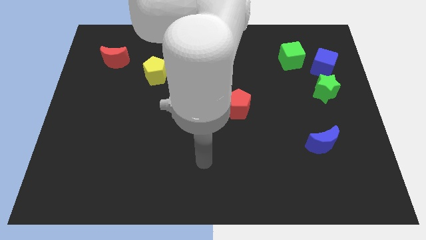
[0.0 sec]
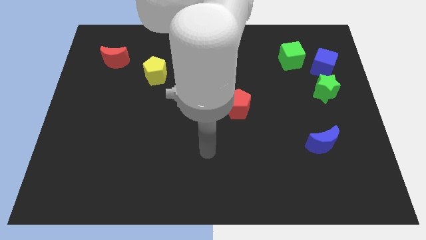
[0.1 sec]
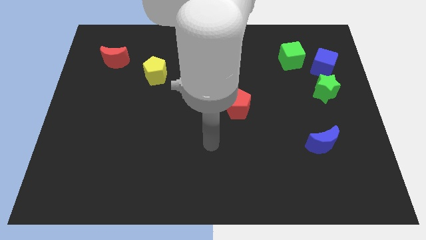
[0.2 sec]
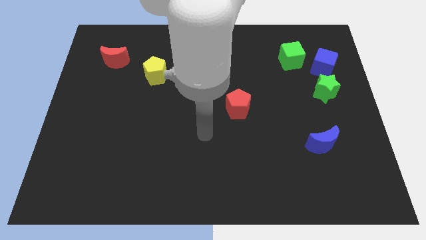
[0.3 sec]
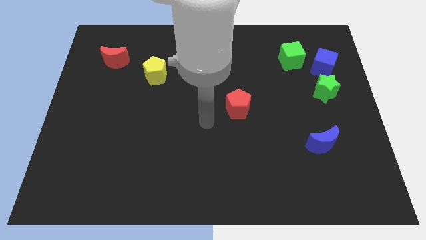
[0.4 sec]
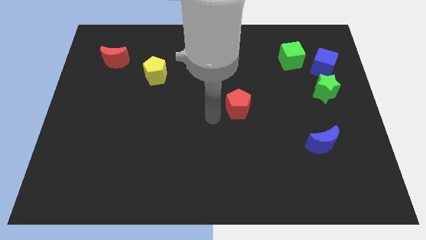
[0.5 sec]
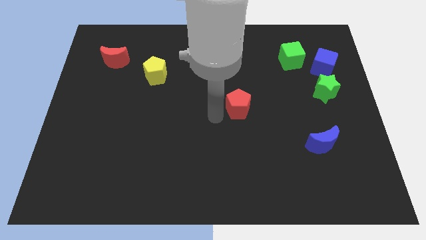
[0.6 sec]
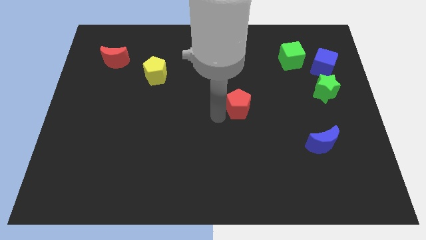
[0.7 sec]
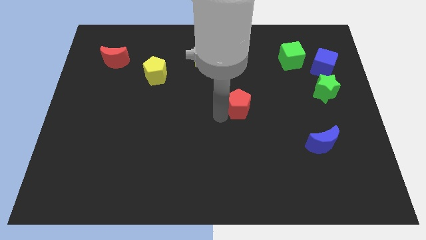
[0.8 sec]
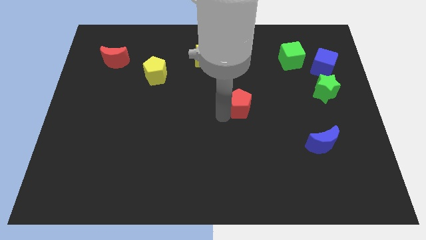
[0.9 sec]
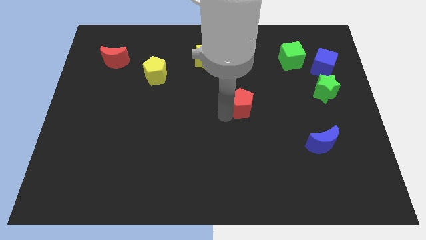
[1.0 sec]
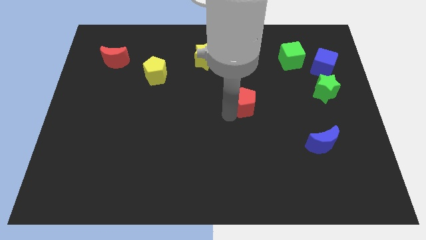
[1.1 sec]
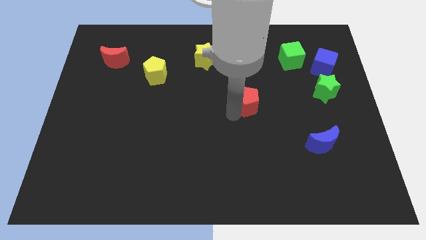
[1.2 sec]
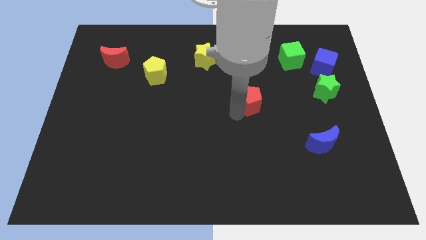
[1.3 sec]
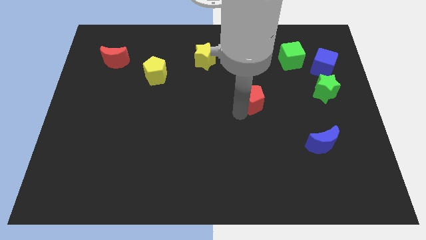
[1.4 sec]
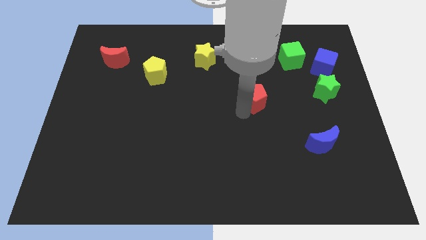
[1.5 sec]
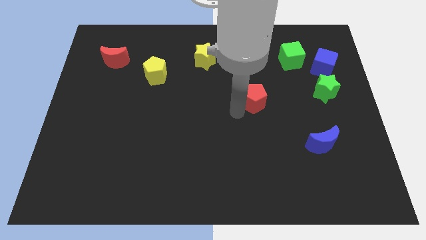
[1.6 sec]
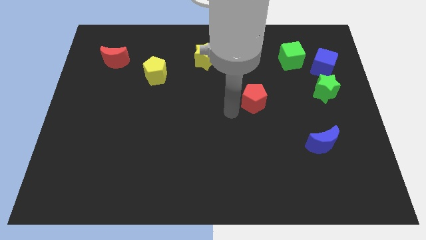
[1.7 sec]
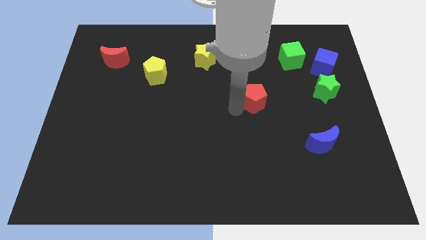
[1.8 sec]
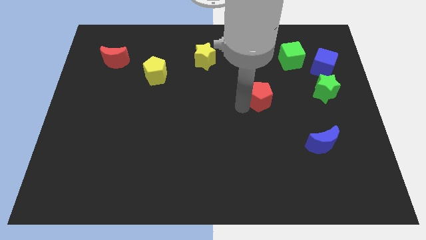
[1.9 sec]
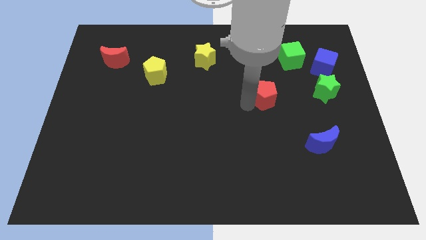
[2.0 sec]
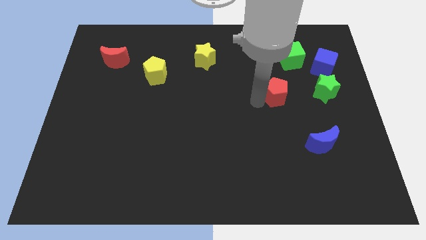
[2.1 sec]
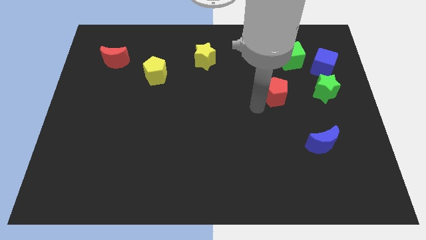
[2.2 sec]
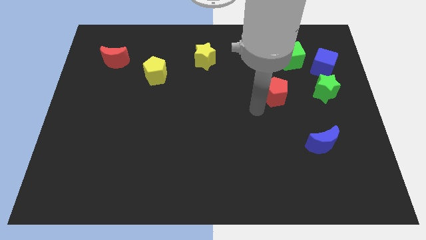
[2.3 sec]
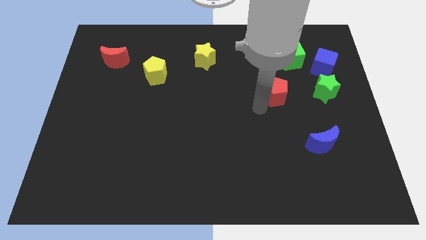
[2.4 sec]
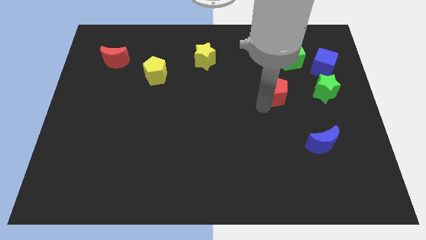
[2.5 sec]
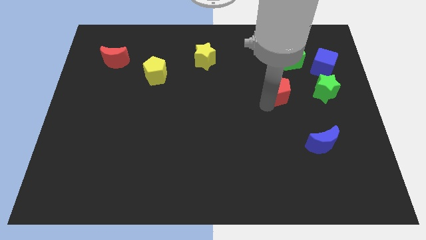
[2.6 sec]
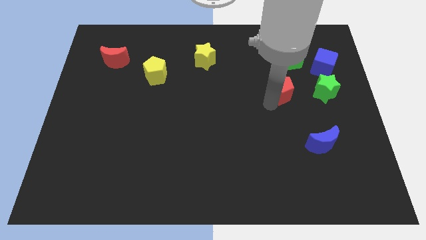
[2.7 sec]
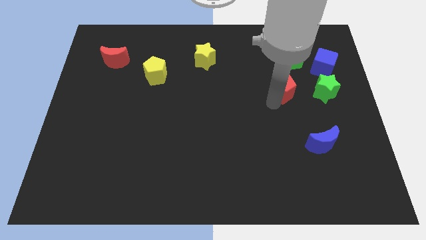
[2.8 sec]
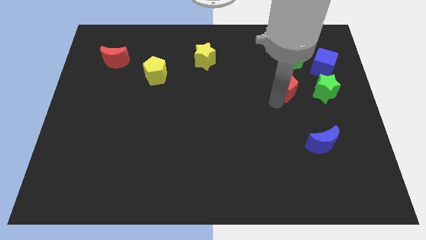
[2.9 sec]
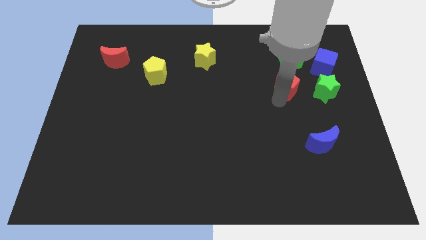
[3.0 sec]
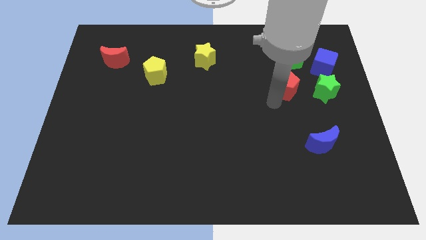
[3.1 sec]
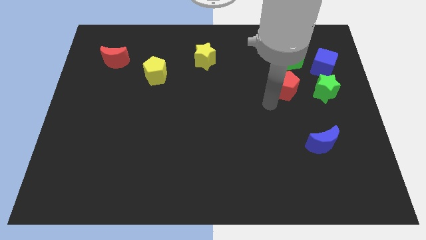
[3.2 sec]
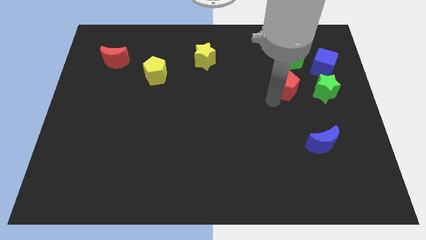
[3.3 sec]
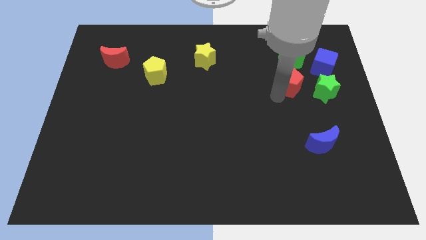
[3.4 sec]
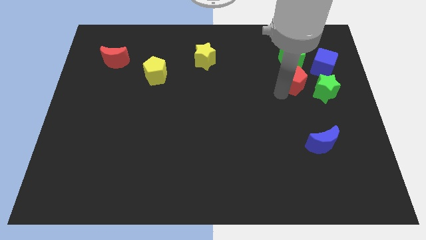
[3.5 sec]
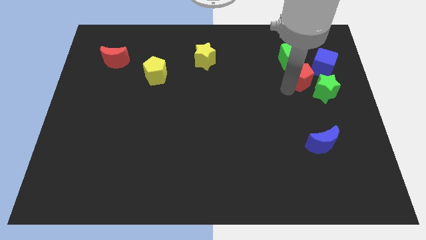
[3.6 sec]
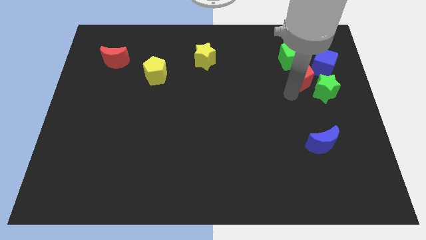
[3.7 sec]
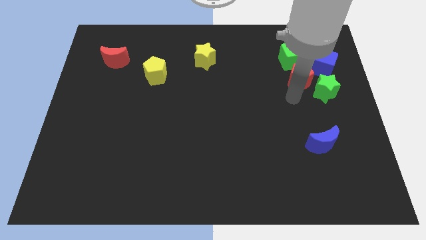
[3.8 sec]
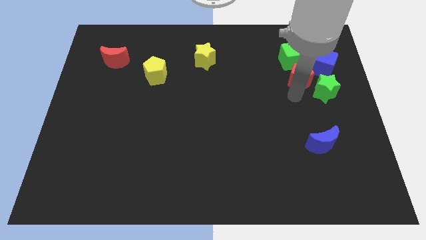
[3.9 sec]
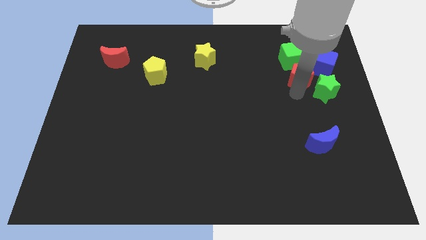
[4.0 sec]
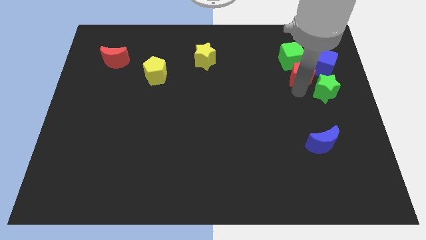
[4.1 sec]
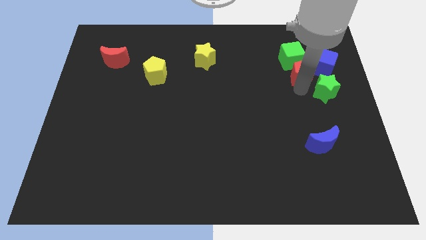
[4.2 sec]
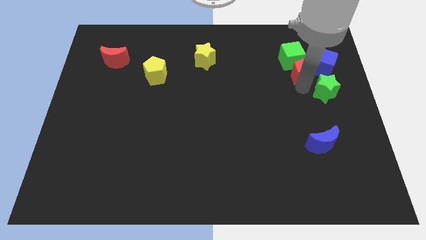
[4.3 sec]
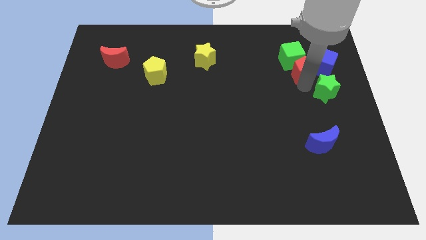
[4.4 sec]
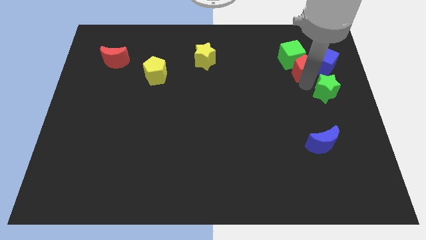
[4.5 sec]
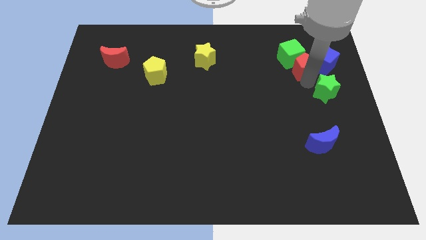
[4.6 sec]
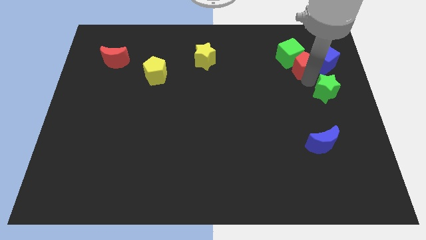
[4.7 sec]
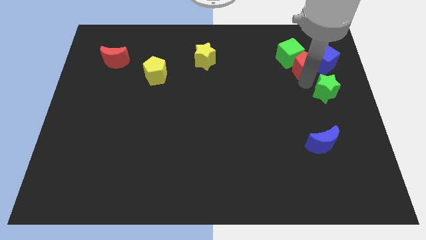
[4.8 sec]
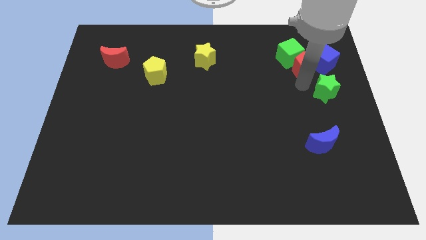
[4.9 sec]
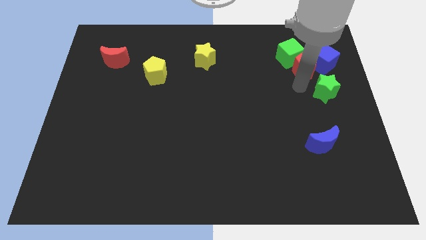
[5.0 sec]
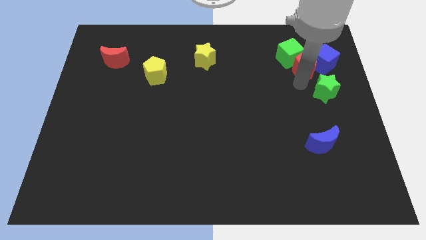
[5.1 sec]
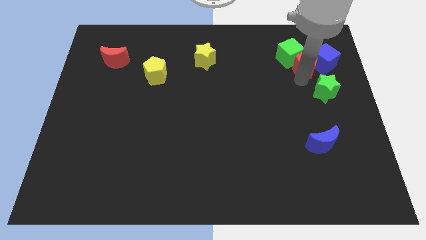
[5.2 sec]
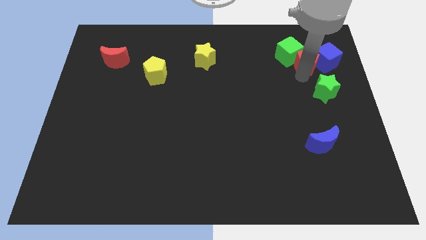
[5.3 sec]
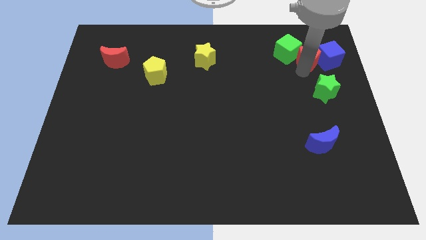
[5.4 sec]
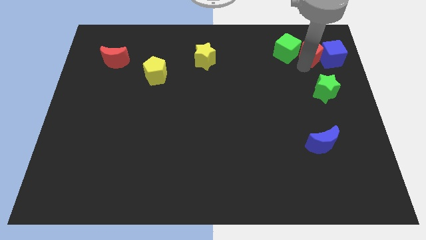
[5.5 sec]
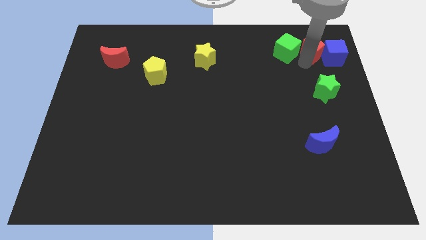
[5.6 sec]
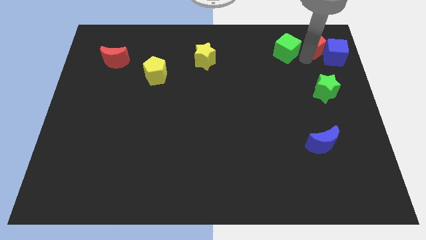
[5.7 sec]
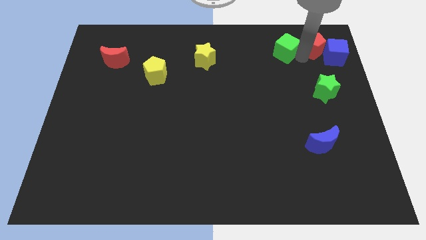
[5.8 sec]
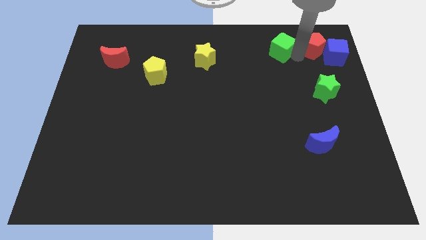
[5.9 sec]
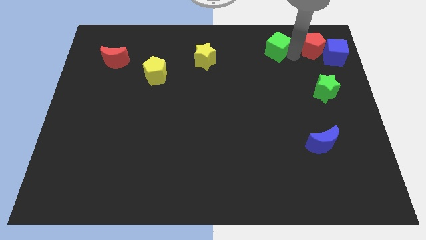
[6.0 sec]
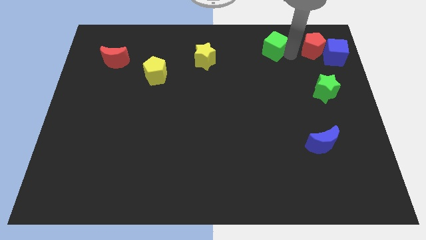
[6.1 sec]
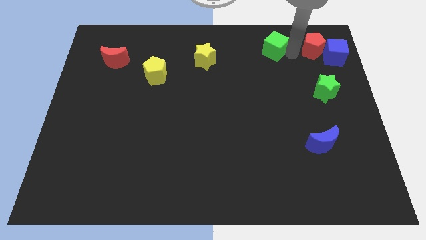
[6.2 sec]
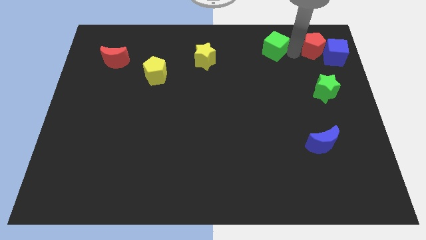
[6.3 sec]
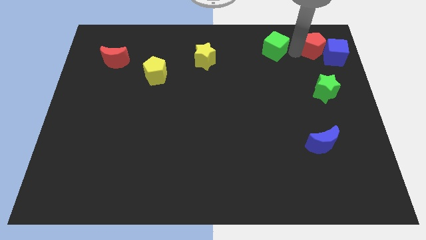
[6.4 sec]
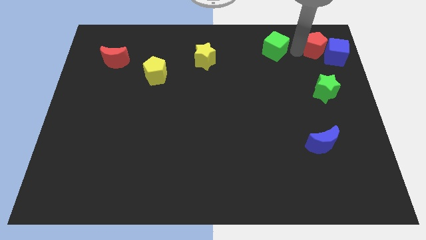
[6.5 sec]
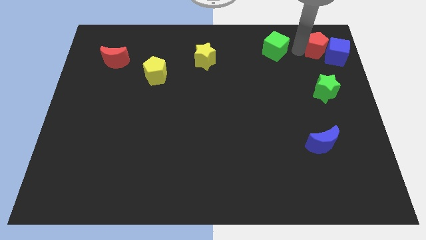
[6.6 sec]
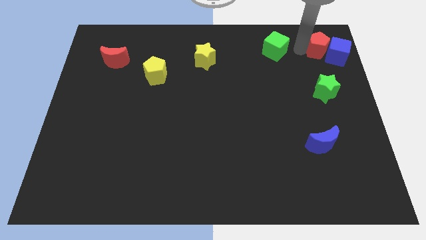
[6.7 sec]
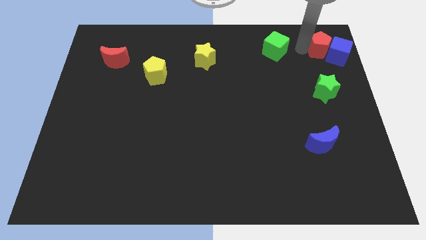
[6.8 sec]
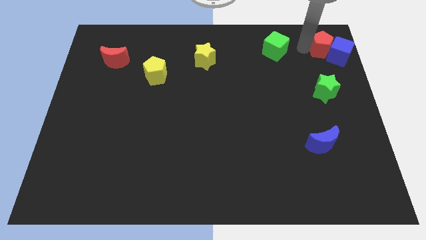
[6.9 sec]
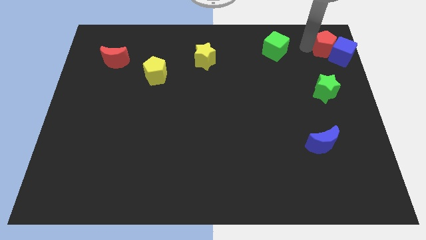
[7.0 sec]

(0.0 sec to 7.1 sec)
put the red pentagon to the upper right corner

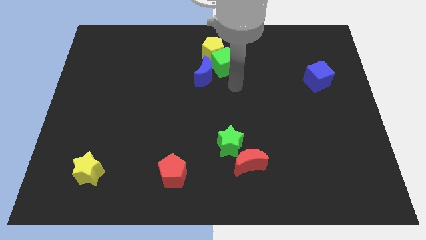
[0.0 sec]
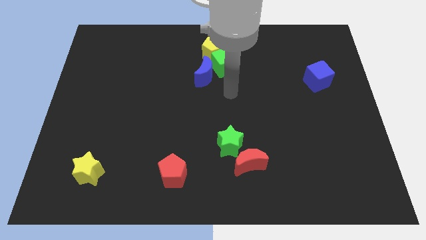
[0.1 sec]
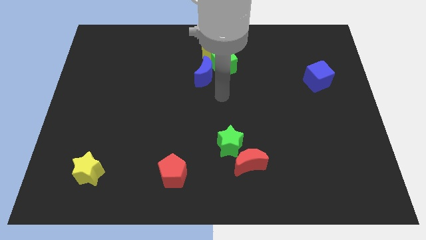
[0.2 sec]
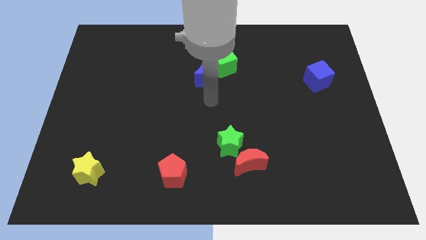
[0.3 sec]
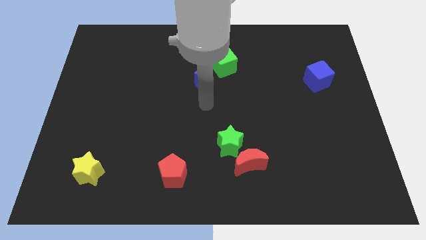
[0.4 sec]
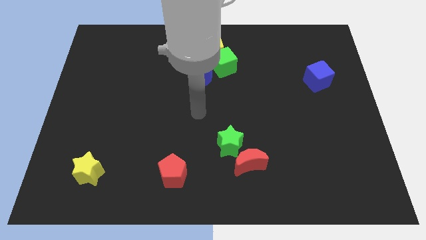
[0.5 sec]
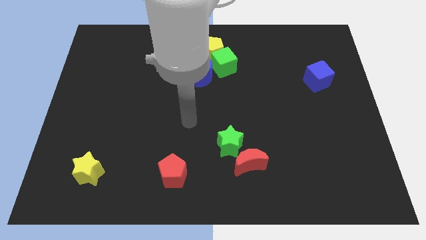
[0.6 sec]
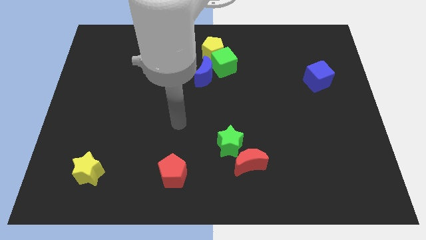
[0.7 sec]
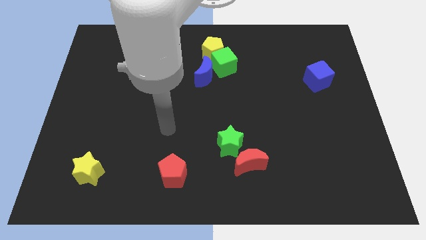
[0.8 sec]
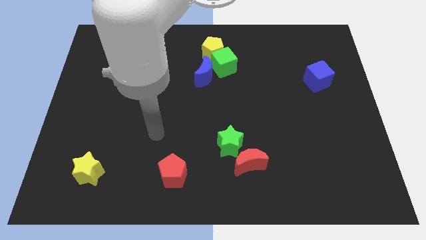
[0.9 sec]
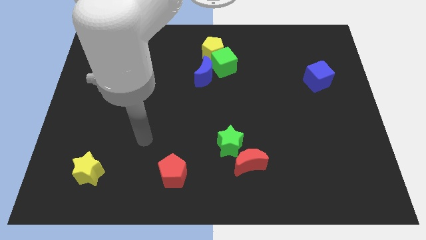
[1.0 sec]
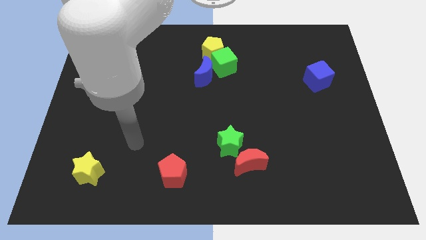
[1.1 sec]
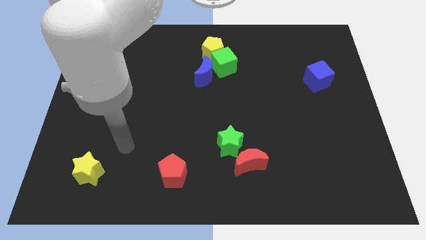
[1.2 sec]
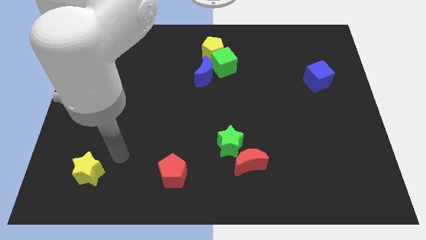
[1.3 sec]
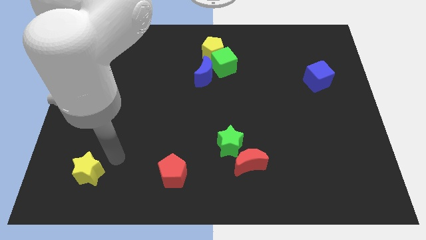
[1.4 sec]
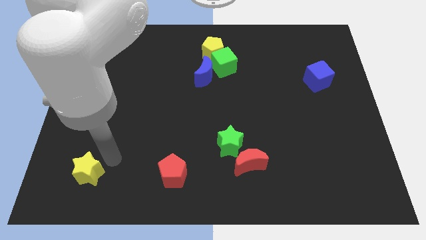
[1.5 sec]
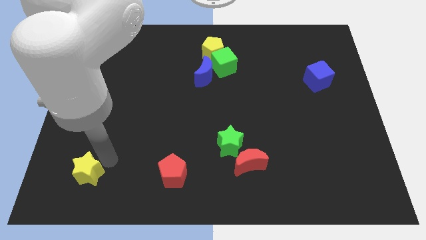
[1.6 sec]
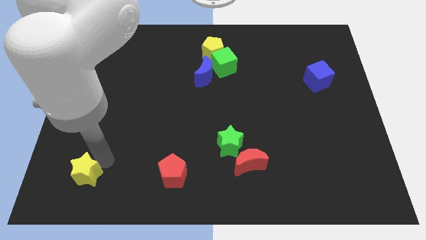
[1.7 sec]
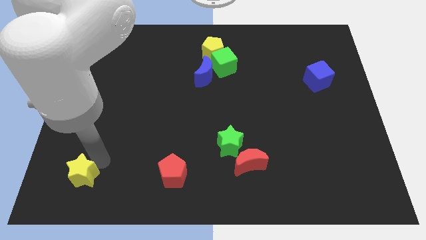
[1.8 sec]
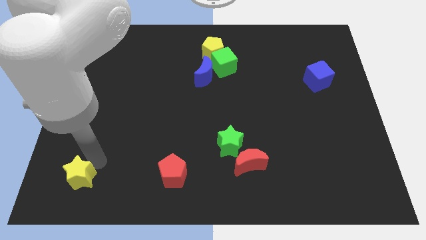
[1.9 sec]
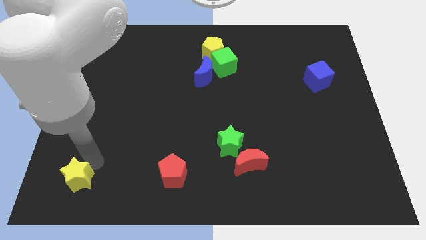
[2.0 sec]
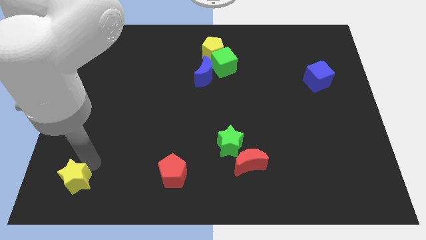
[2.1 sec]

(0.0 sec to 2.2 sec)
put the yellow star to the bottom left
